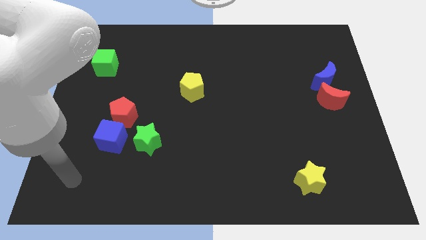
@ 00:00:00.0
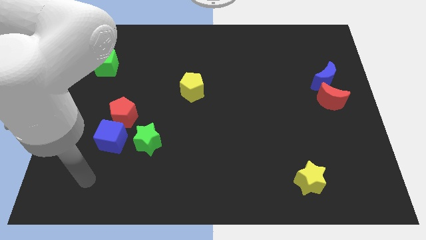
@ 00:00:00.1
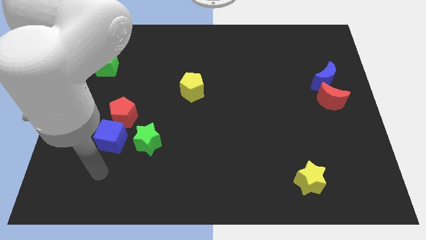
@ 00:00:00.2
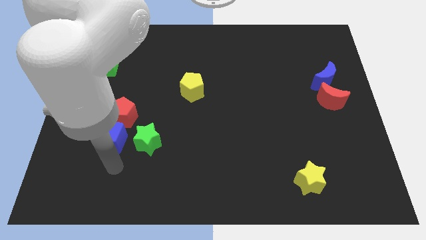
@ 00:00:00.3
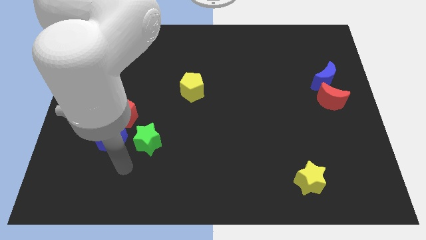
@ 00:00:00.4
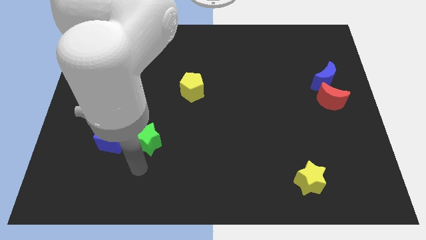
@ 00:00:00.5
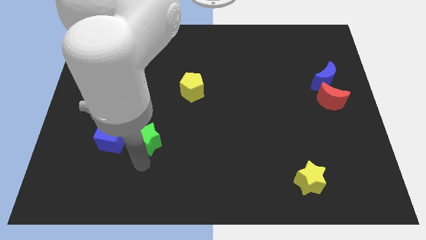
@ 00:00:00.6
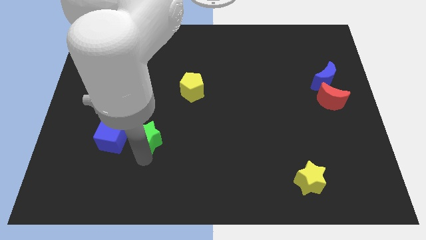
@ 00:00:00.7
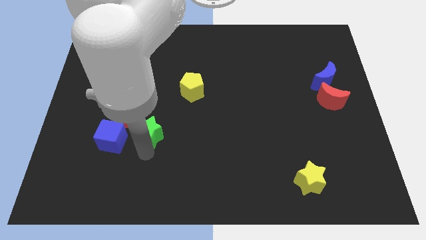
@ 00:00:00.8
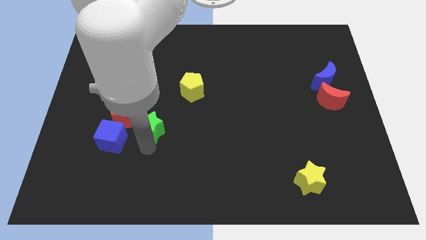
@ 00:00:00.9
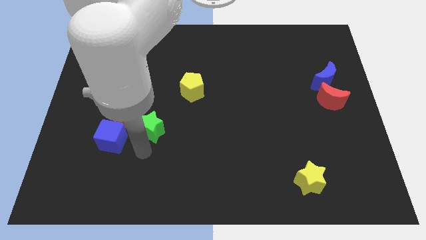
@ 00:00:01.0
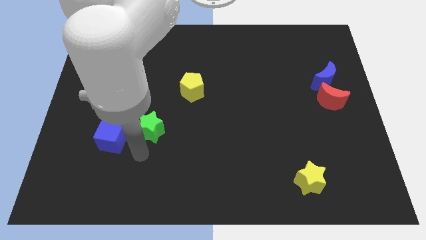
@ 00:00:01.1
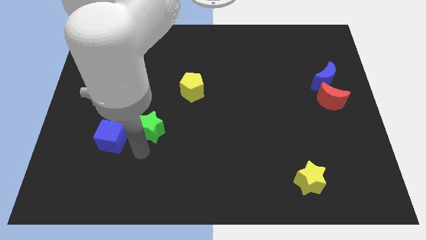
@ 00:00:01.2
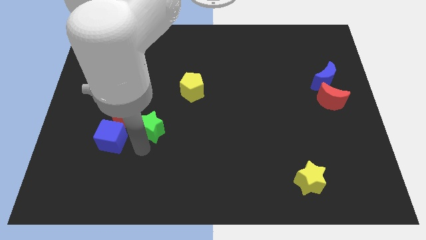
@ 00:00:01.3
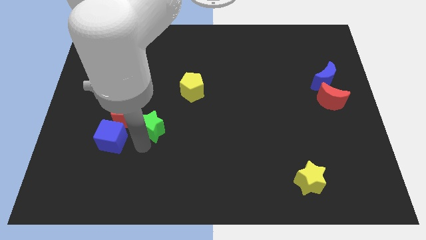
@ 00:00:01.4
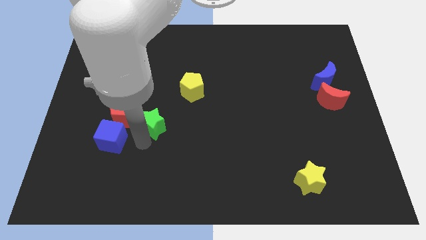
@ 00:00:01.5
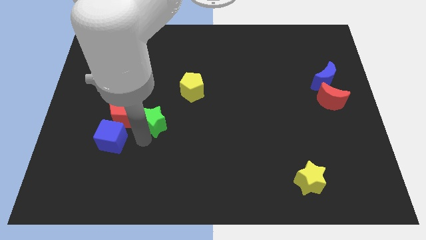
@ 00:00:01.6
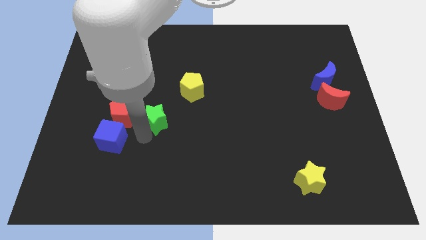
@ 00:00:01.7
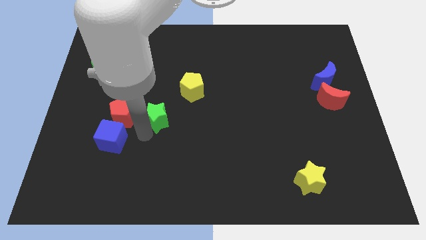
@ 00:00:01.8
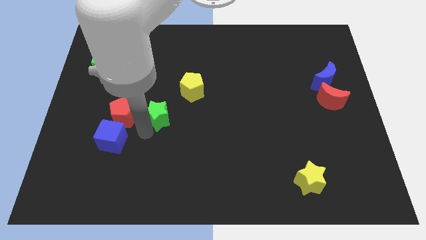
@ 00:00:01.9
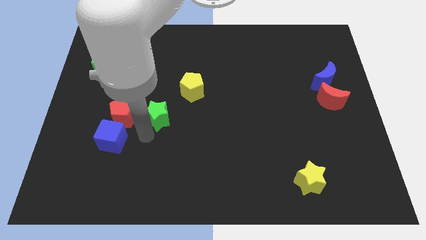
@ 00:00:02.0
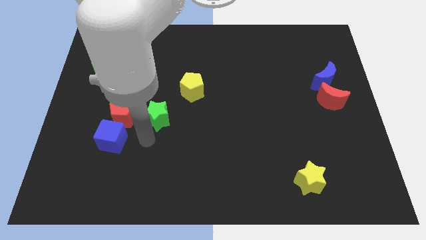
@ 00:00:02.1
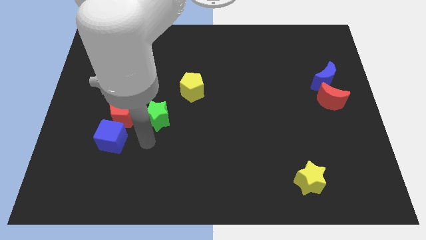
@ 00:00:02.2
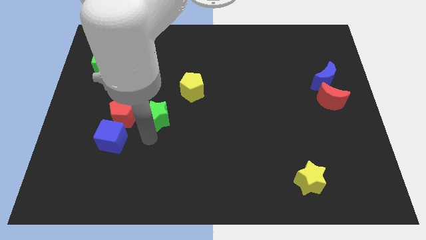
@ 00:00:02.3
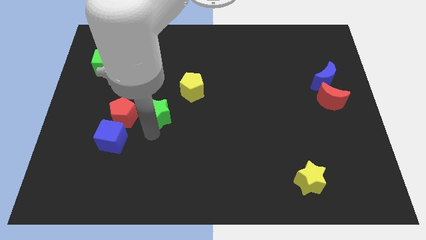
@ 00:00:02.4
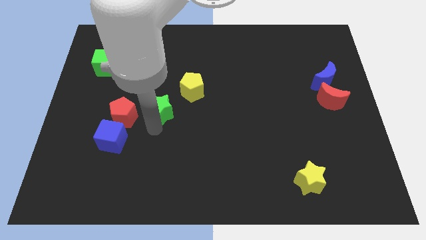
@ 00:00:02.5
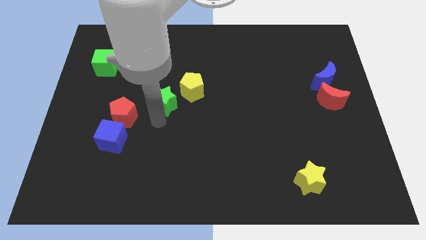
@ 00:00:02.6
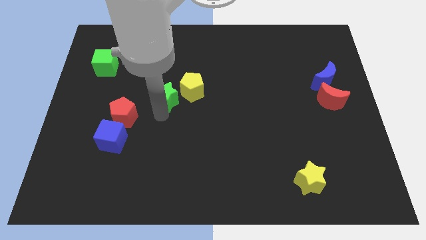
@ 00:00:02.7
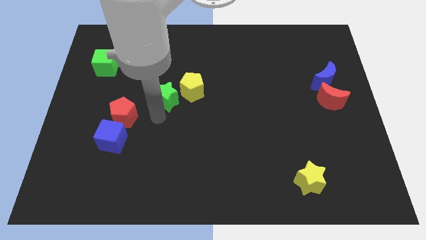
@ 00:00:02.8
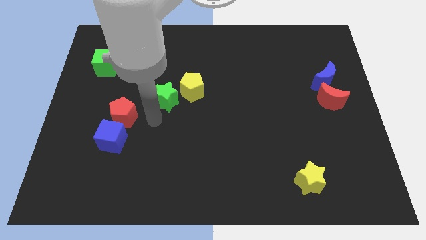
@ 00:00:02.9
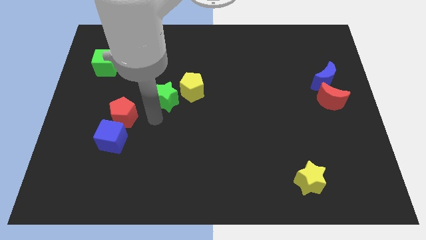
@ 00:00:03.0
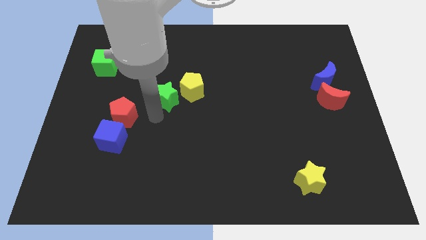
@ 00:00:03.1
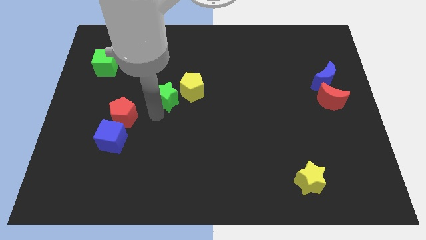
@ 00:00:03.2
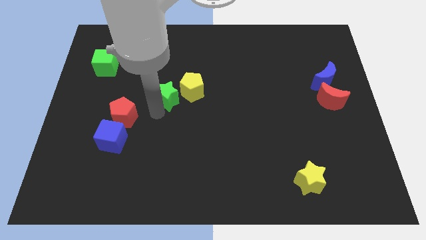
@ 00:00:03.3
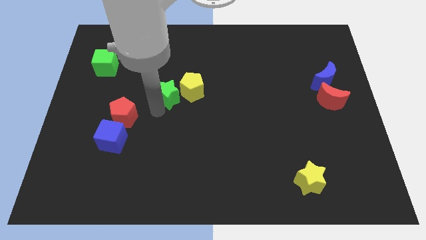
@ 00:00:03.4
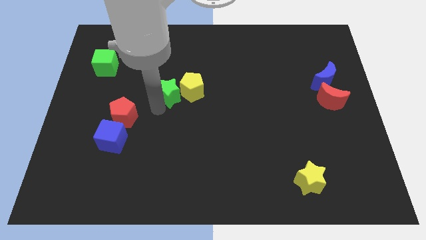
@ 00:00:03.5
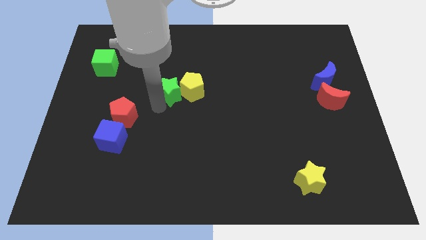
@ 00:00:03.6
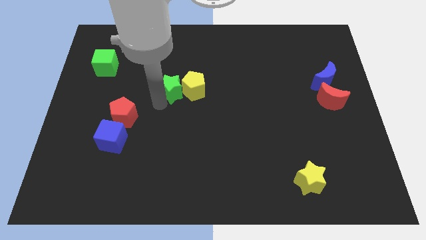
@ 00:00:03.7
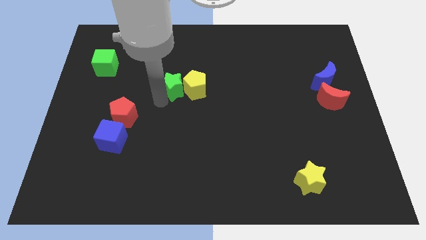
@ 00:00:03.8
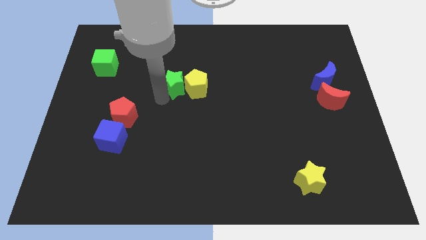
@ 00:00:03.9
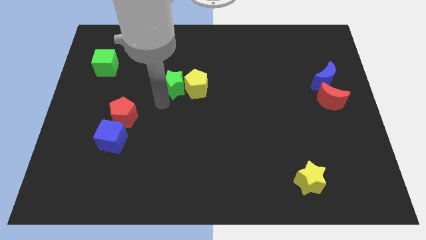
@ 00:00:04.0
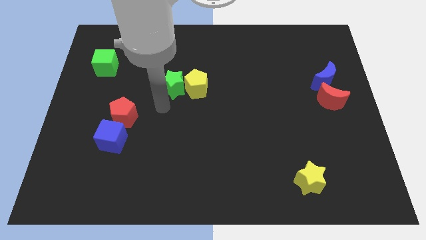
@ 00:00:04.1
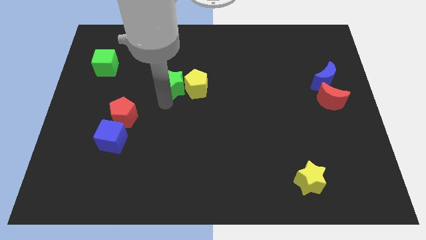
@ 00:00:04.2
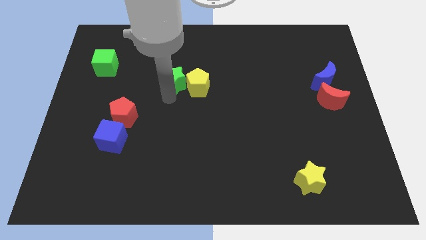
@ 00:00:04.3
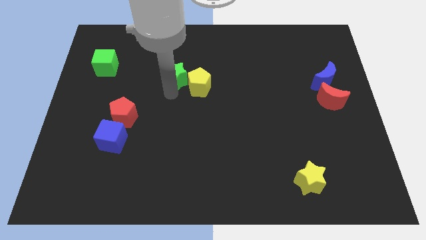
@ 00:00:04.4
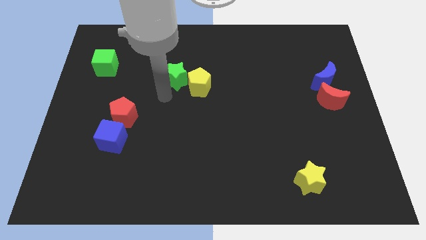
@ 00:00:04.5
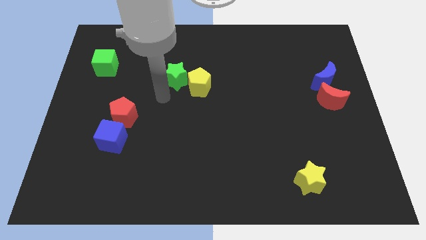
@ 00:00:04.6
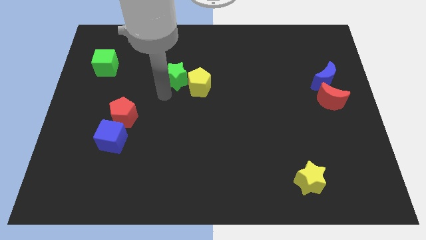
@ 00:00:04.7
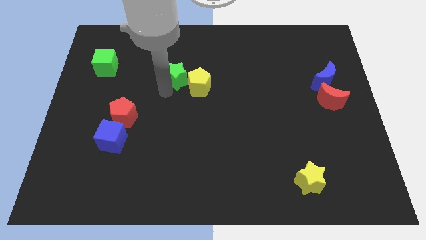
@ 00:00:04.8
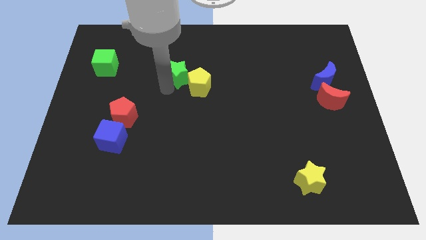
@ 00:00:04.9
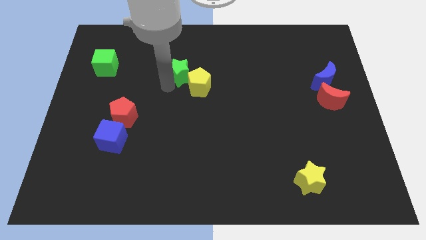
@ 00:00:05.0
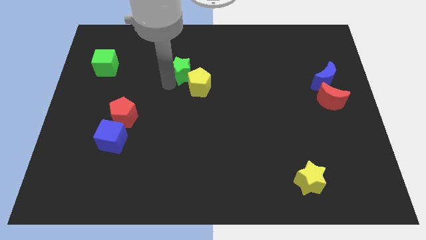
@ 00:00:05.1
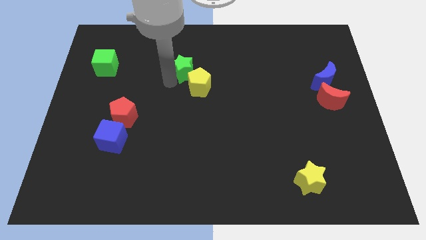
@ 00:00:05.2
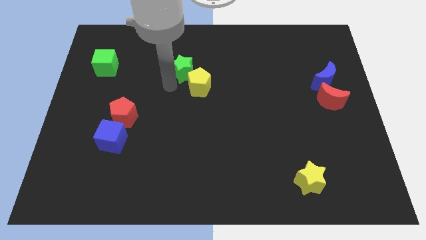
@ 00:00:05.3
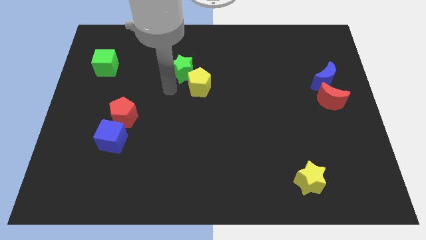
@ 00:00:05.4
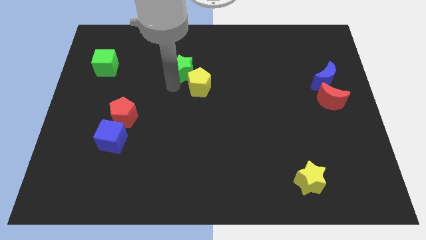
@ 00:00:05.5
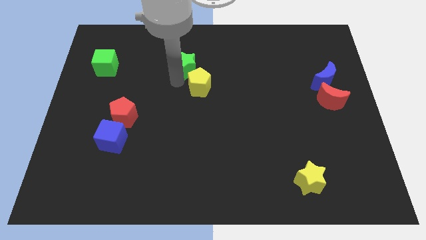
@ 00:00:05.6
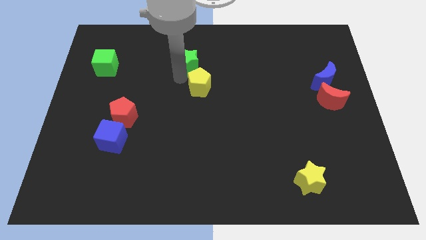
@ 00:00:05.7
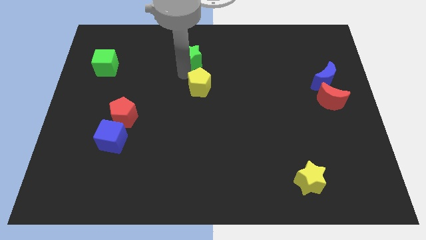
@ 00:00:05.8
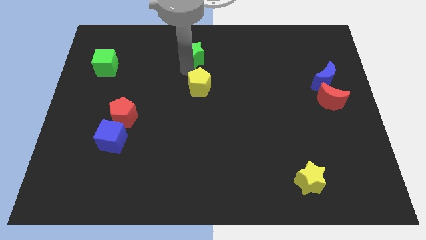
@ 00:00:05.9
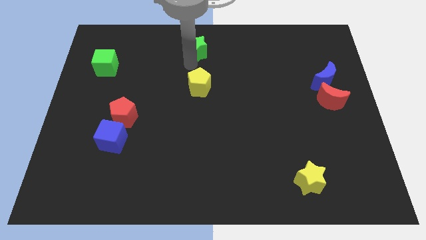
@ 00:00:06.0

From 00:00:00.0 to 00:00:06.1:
push the green star to the top side
